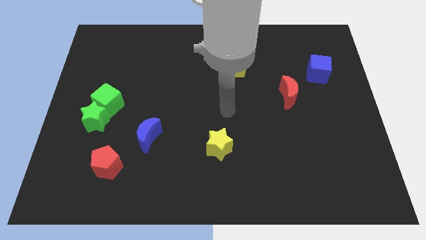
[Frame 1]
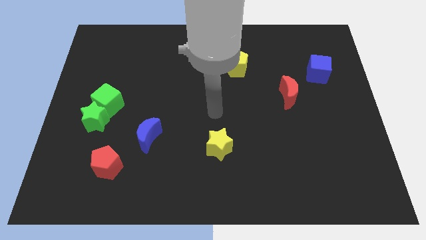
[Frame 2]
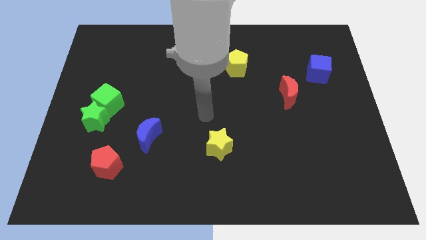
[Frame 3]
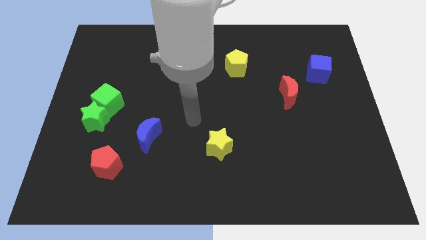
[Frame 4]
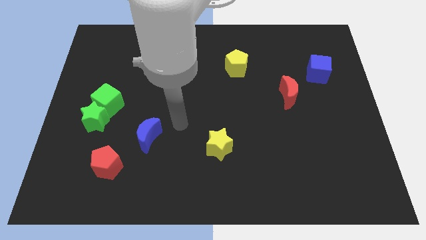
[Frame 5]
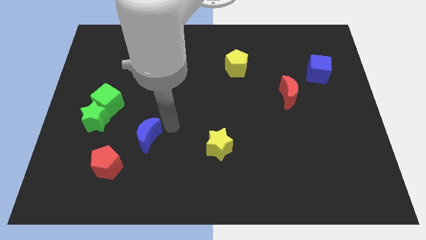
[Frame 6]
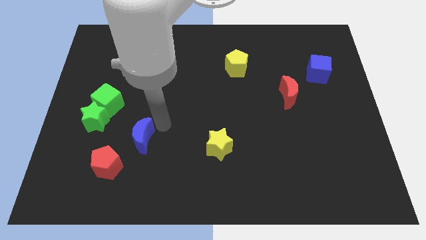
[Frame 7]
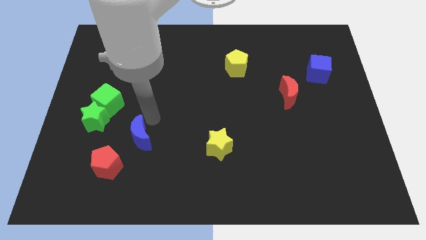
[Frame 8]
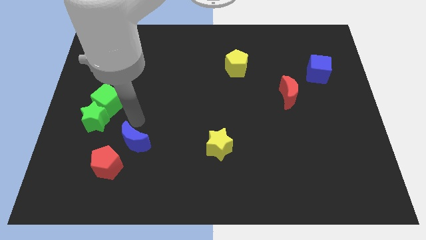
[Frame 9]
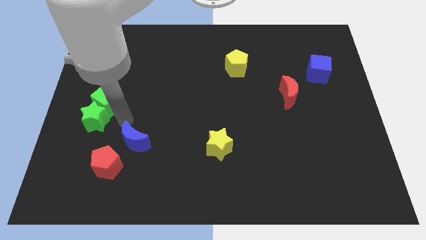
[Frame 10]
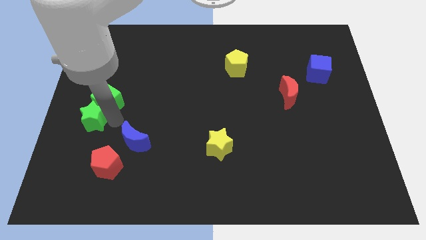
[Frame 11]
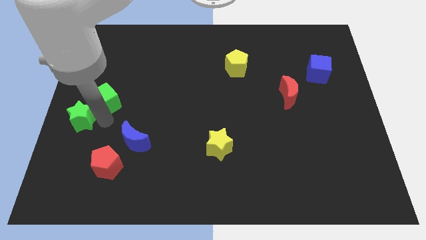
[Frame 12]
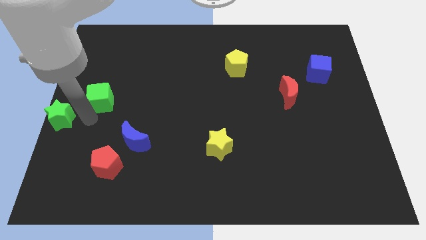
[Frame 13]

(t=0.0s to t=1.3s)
pull the green cube apart from the green star

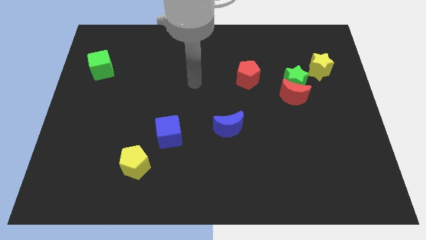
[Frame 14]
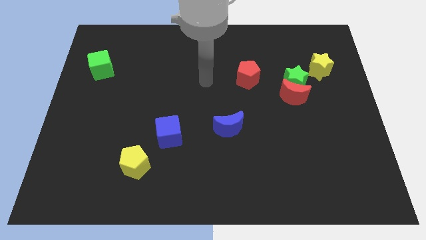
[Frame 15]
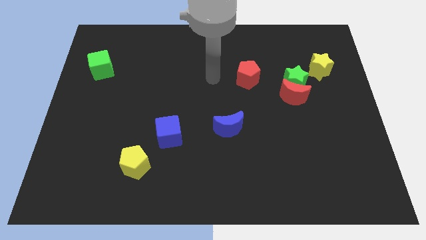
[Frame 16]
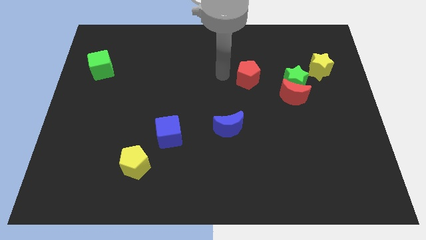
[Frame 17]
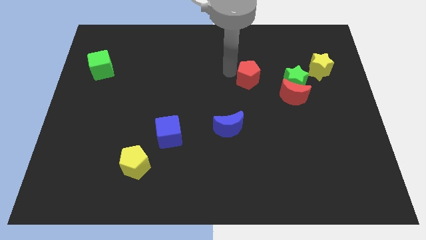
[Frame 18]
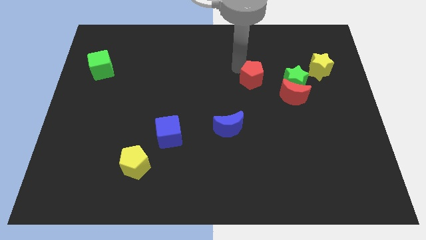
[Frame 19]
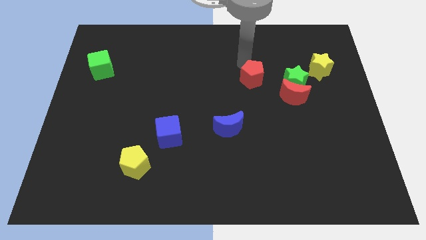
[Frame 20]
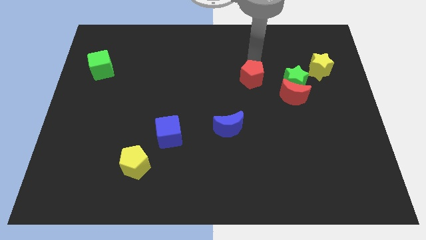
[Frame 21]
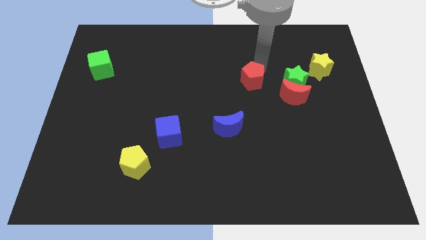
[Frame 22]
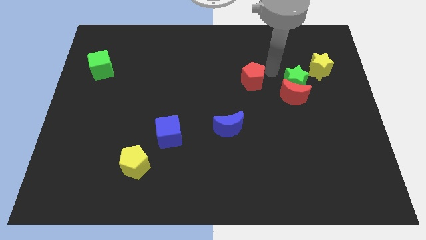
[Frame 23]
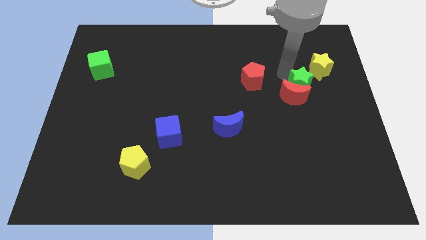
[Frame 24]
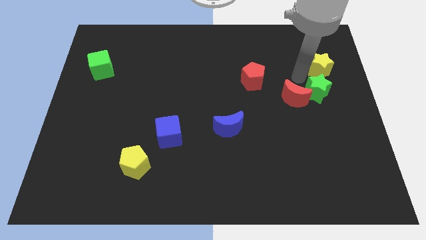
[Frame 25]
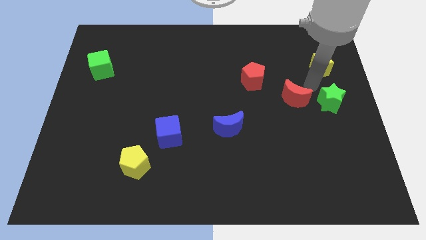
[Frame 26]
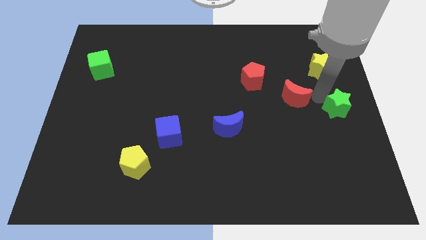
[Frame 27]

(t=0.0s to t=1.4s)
move the red moon away from the green star

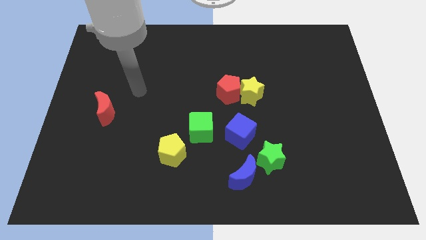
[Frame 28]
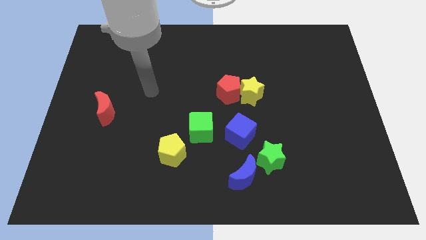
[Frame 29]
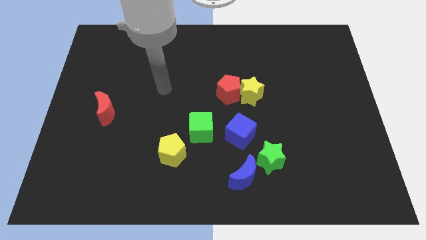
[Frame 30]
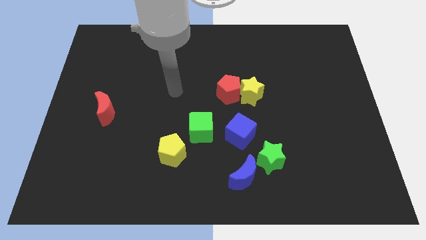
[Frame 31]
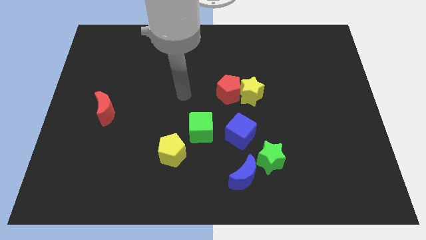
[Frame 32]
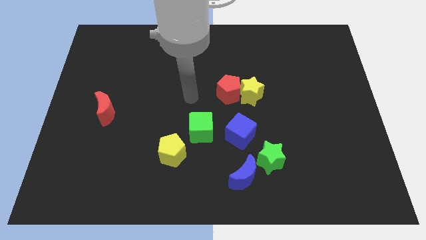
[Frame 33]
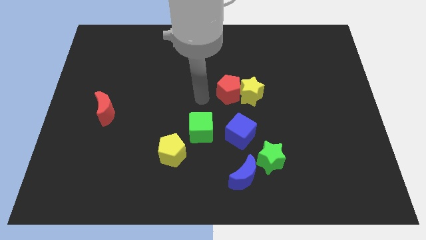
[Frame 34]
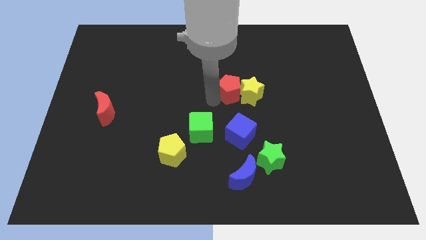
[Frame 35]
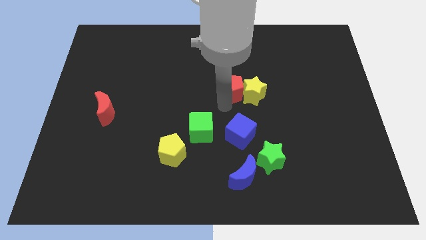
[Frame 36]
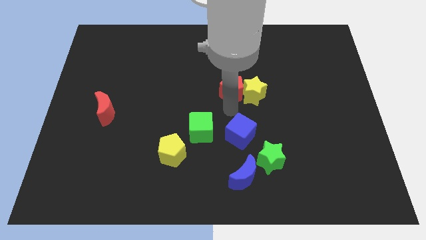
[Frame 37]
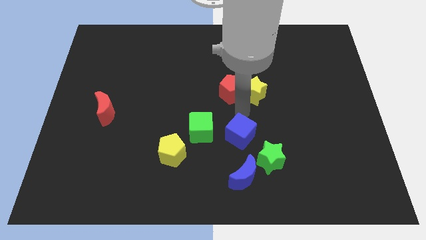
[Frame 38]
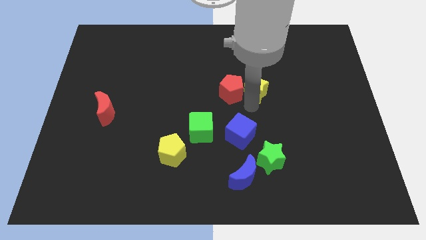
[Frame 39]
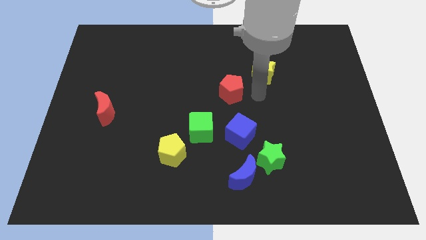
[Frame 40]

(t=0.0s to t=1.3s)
pull the red pentagon apart from the yellow star

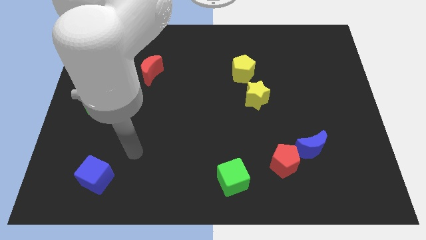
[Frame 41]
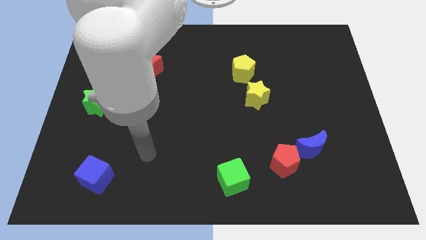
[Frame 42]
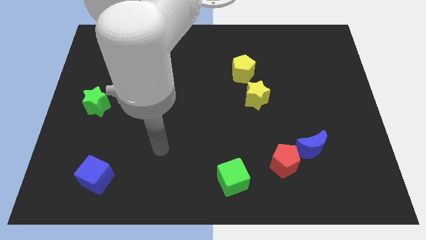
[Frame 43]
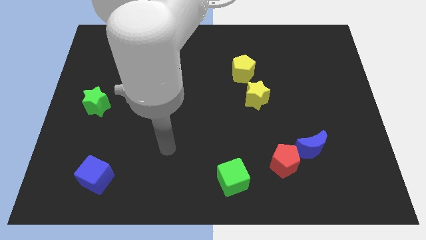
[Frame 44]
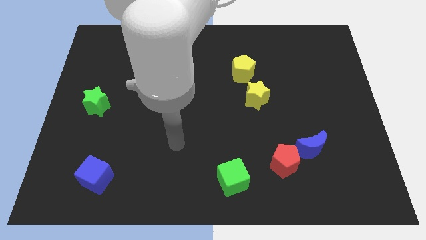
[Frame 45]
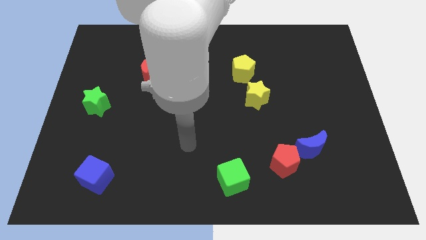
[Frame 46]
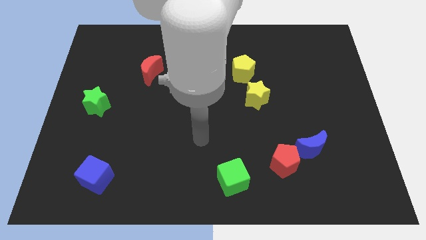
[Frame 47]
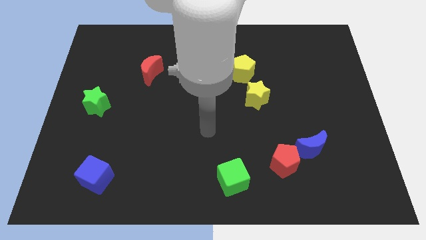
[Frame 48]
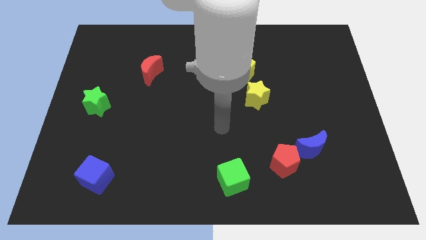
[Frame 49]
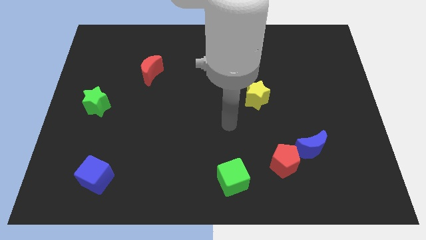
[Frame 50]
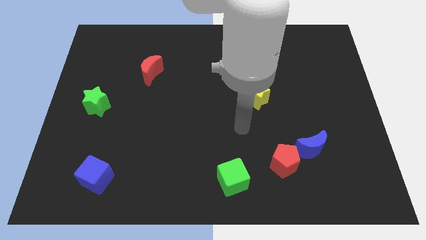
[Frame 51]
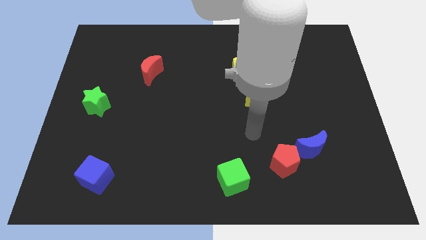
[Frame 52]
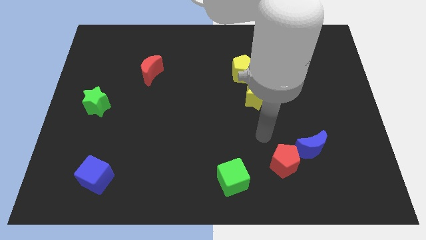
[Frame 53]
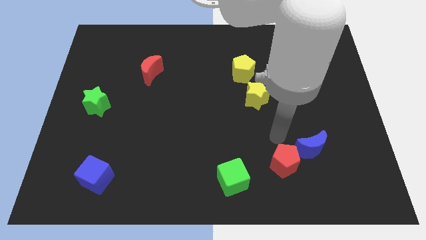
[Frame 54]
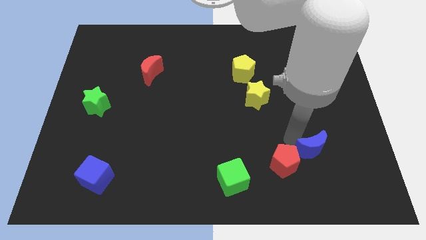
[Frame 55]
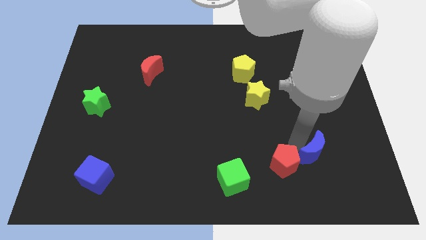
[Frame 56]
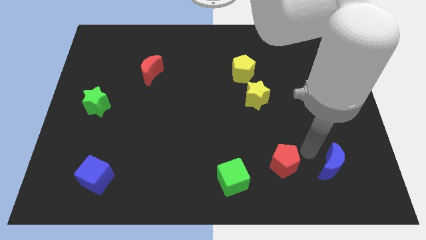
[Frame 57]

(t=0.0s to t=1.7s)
separate the red pentagon from the blue moon

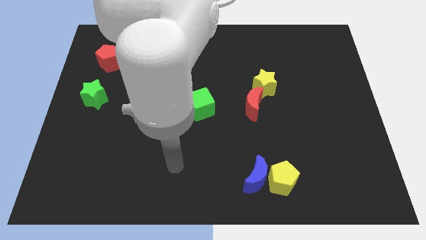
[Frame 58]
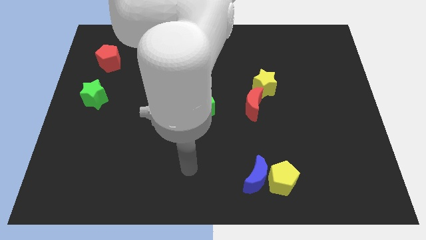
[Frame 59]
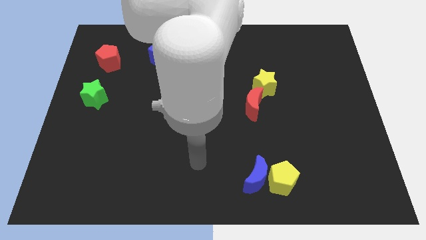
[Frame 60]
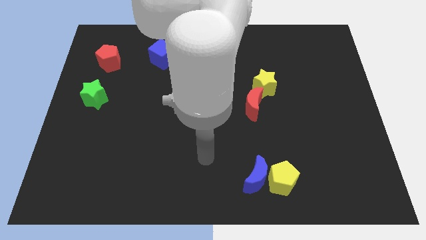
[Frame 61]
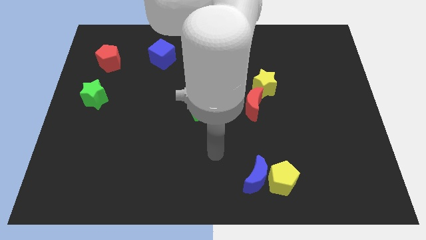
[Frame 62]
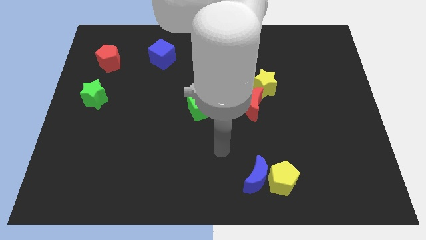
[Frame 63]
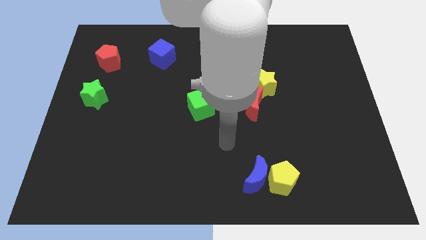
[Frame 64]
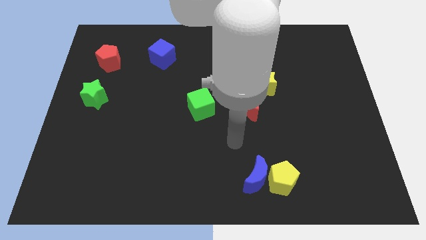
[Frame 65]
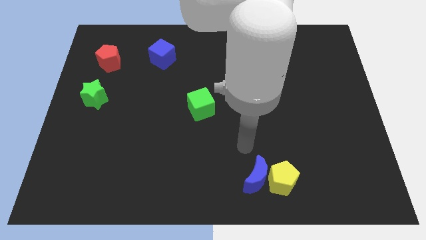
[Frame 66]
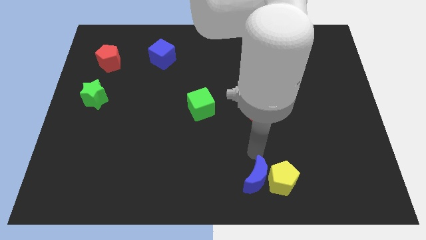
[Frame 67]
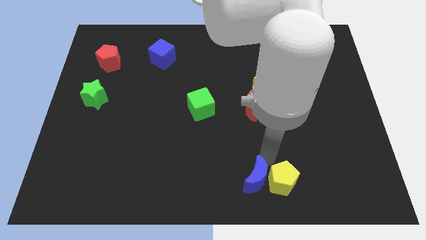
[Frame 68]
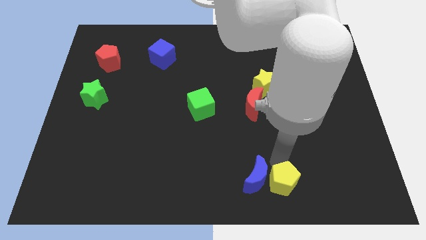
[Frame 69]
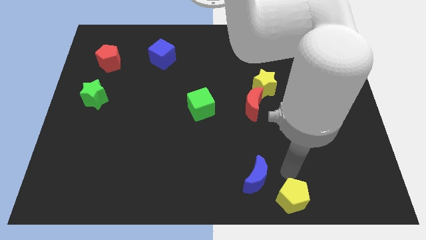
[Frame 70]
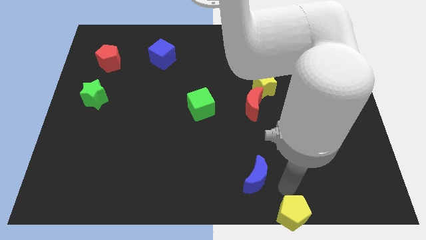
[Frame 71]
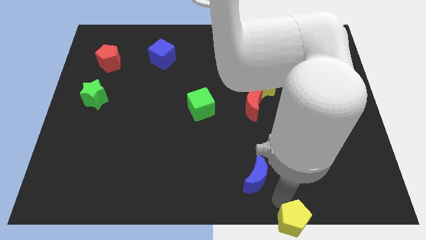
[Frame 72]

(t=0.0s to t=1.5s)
move the blue moon away from the yellow pentagon

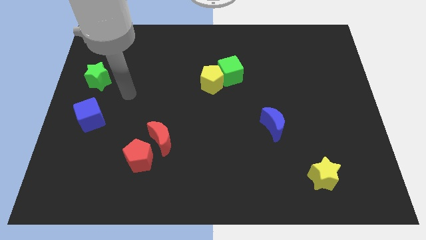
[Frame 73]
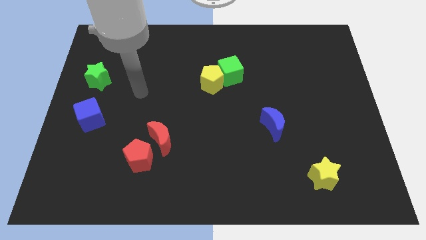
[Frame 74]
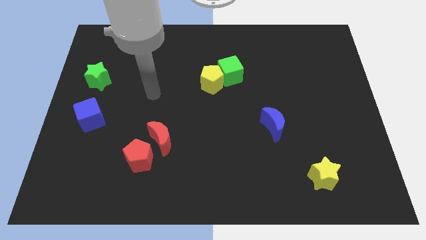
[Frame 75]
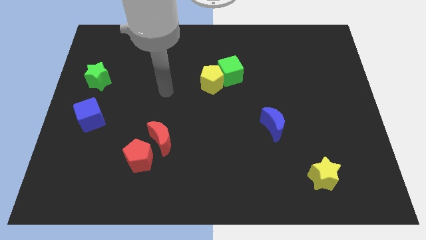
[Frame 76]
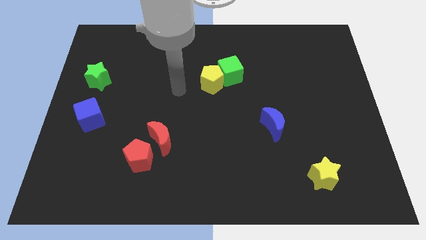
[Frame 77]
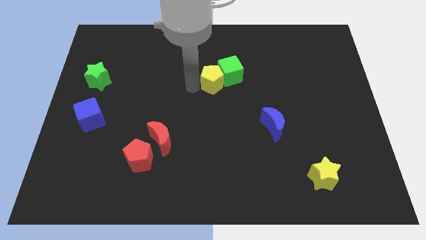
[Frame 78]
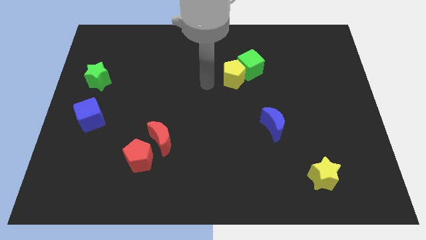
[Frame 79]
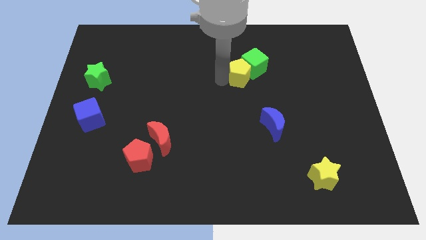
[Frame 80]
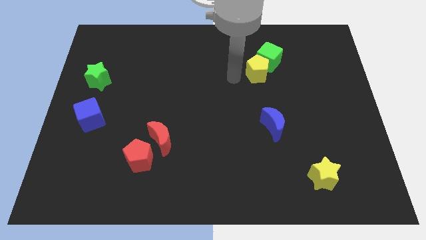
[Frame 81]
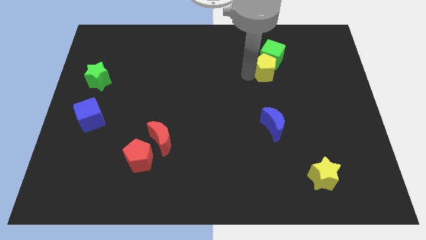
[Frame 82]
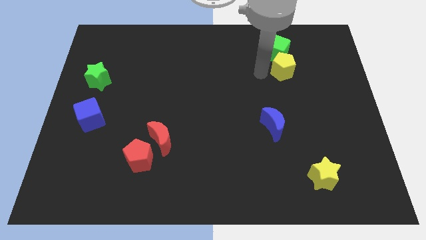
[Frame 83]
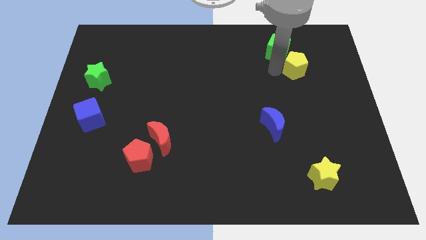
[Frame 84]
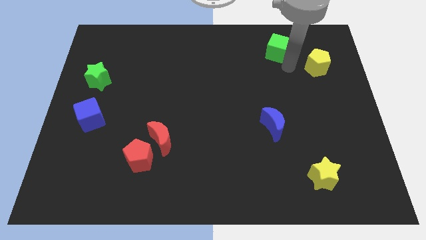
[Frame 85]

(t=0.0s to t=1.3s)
separate the green cube from the yellow pentagon

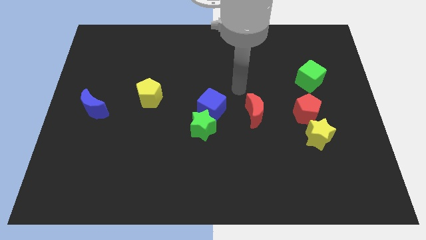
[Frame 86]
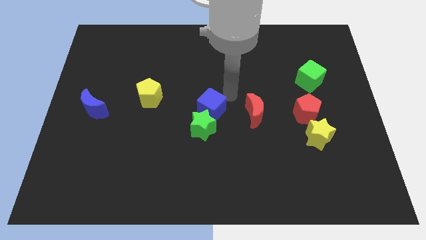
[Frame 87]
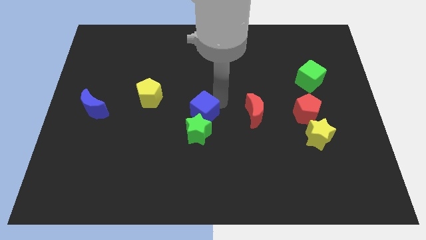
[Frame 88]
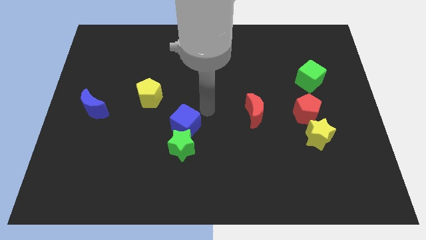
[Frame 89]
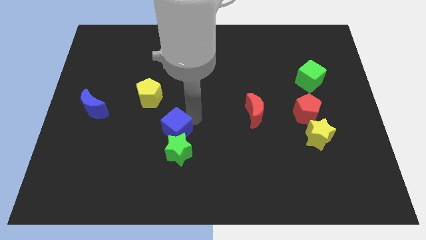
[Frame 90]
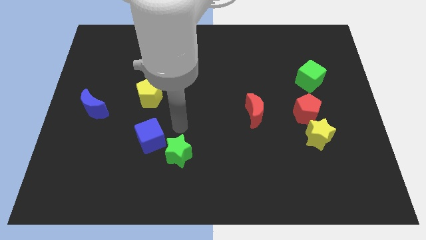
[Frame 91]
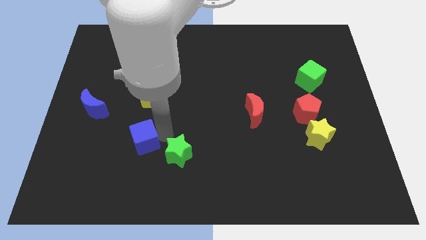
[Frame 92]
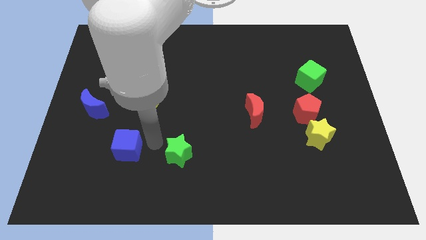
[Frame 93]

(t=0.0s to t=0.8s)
separate the green star from the blue cube

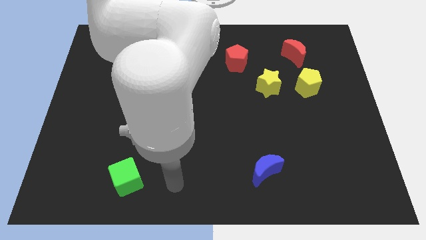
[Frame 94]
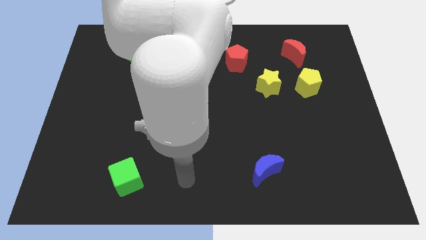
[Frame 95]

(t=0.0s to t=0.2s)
separate the yellow star from the yellow pentagon
